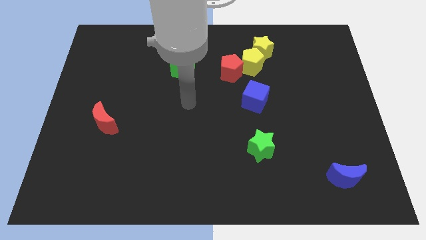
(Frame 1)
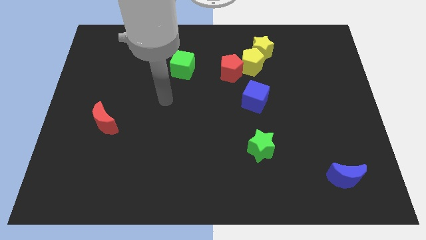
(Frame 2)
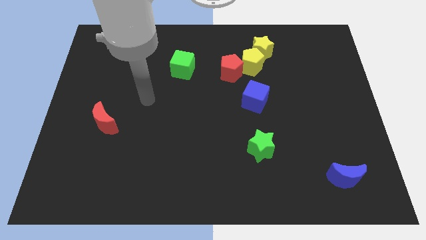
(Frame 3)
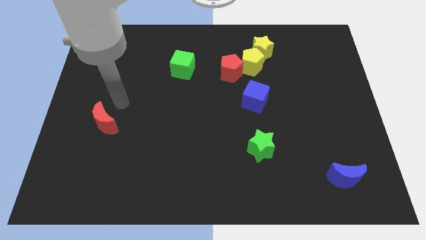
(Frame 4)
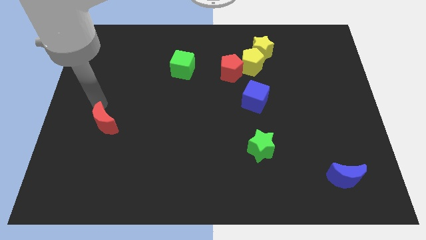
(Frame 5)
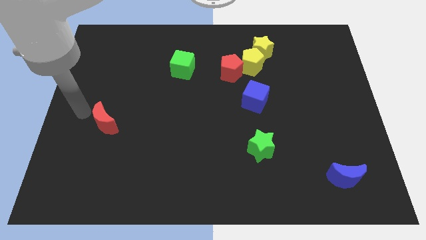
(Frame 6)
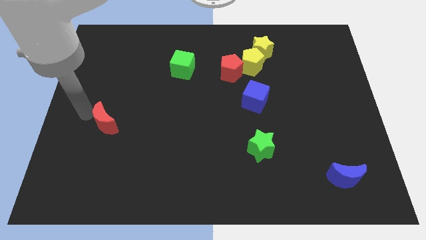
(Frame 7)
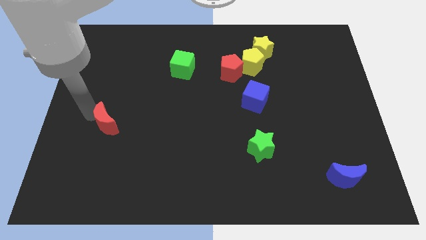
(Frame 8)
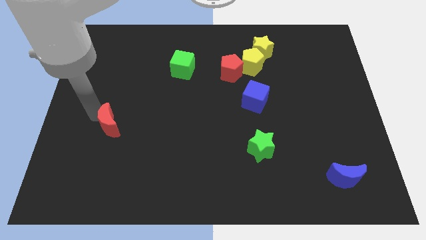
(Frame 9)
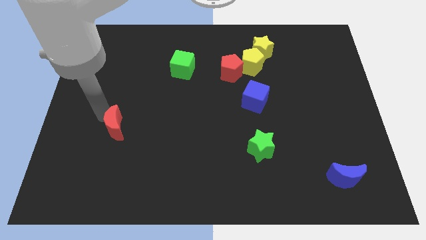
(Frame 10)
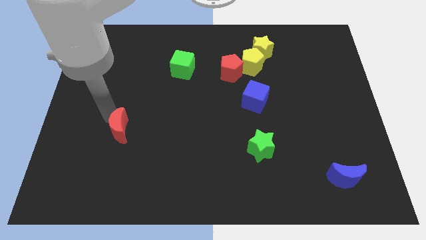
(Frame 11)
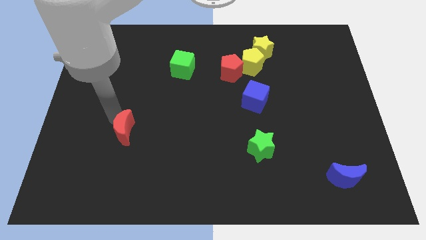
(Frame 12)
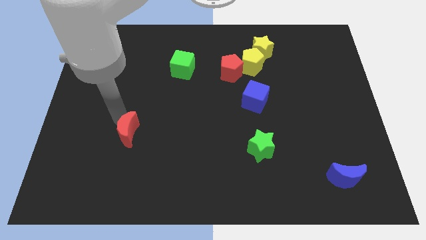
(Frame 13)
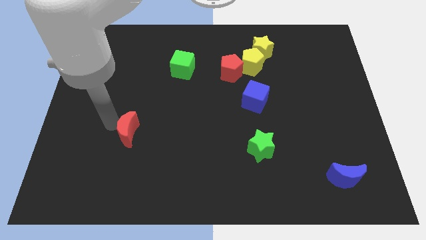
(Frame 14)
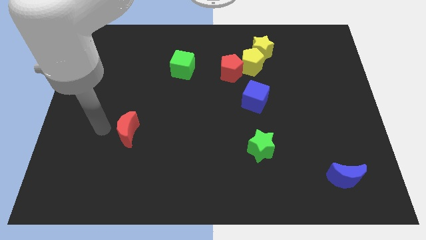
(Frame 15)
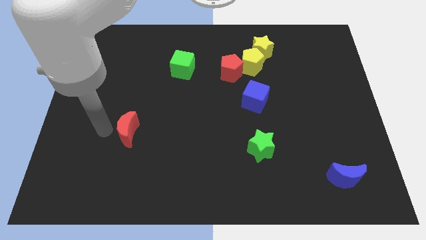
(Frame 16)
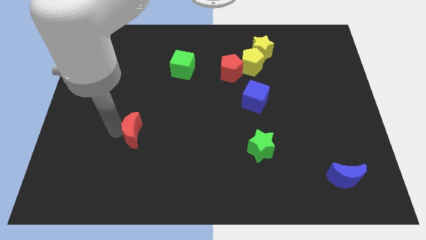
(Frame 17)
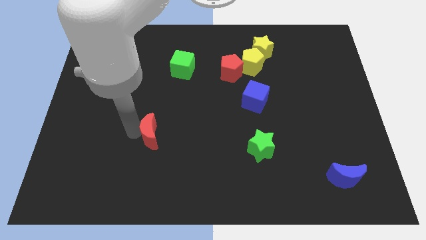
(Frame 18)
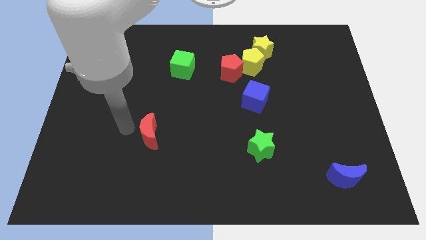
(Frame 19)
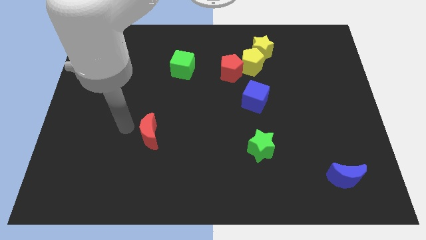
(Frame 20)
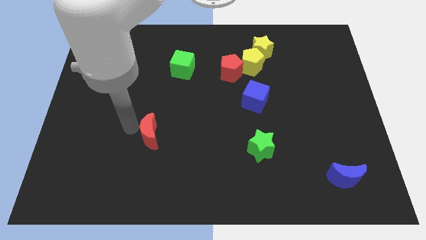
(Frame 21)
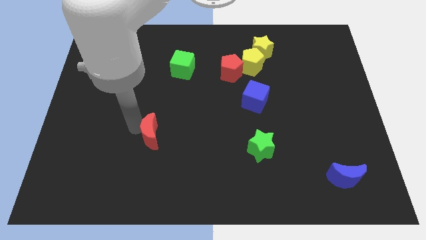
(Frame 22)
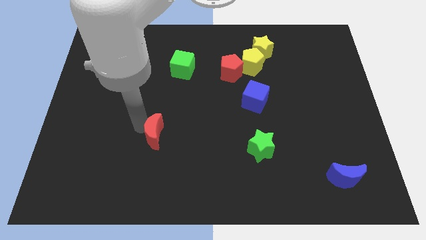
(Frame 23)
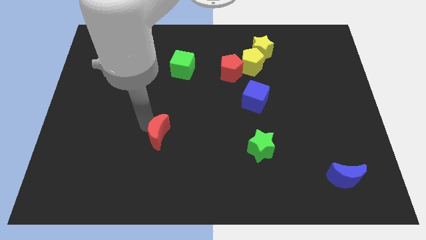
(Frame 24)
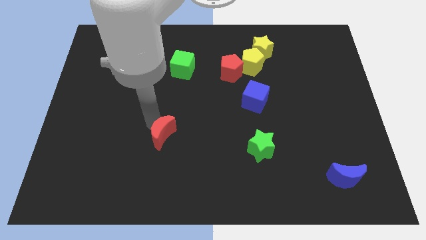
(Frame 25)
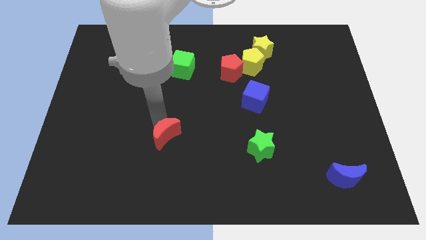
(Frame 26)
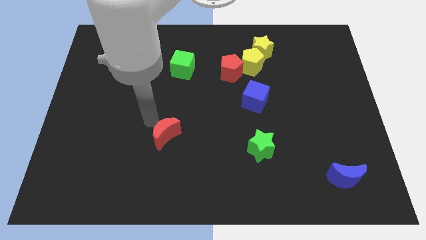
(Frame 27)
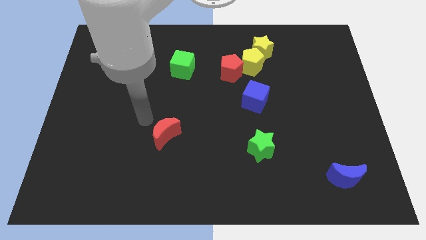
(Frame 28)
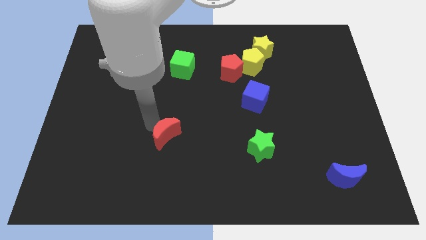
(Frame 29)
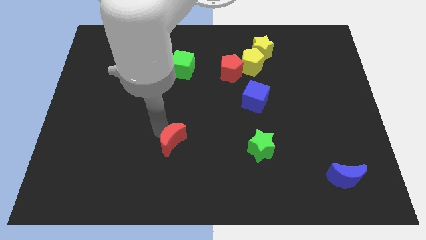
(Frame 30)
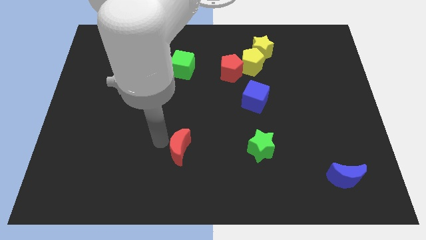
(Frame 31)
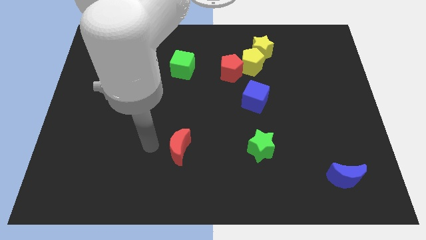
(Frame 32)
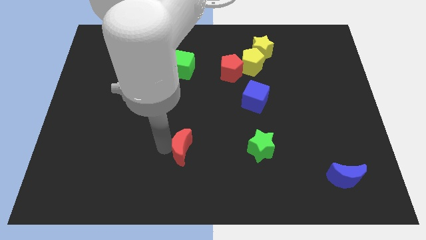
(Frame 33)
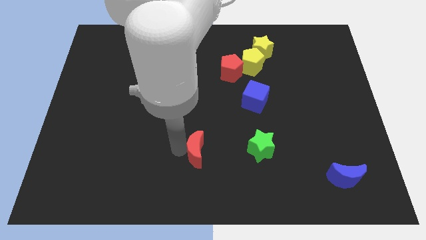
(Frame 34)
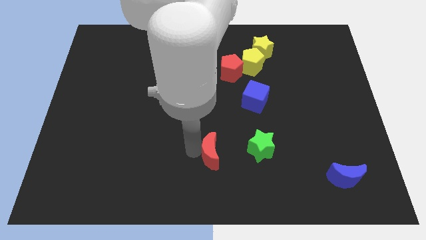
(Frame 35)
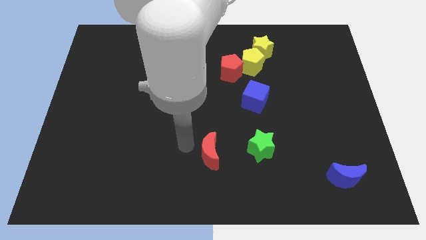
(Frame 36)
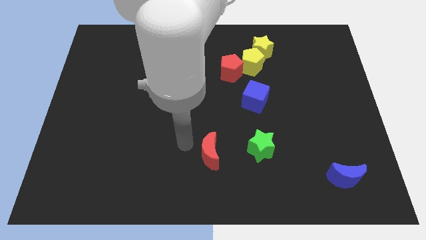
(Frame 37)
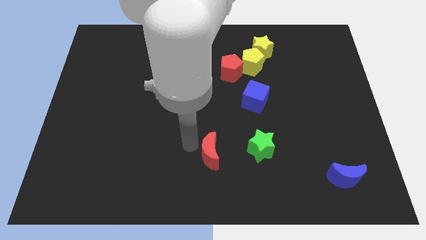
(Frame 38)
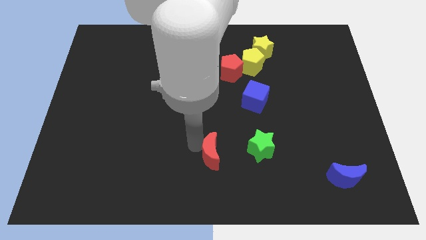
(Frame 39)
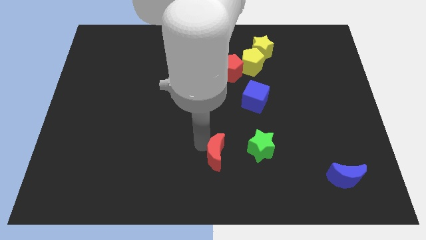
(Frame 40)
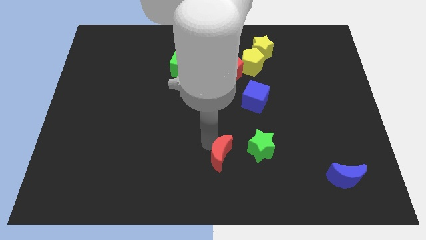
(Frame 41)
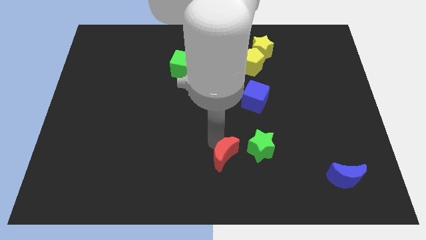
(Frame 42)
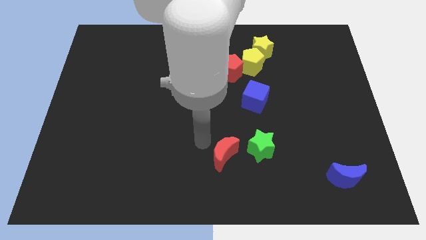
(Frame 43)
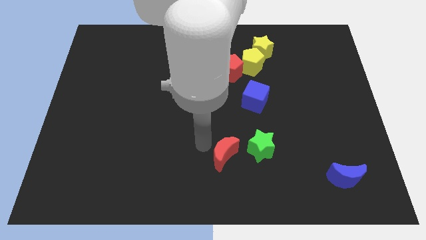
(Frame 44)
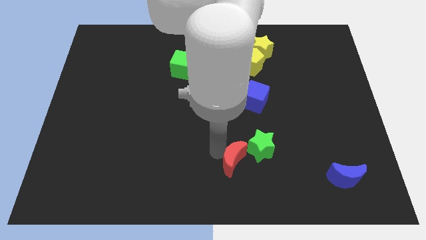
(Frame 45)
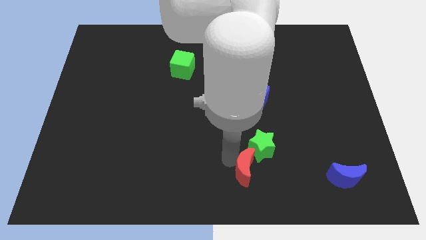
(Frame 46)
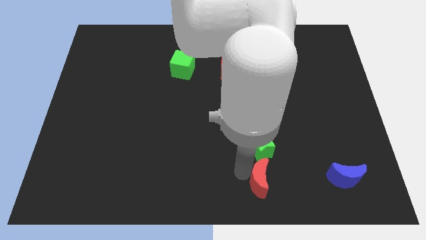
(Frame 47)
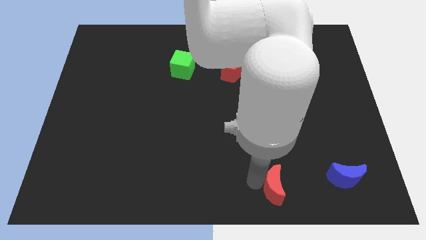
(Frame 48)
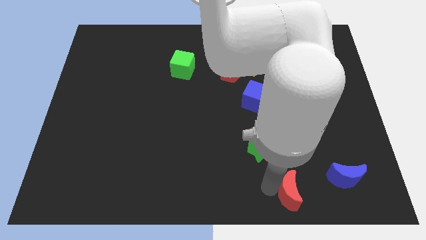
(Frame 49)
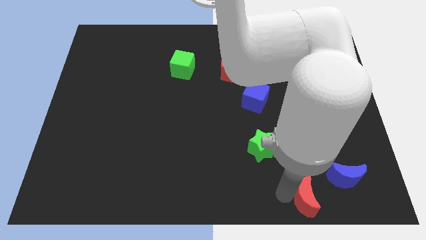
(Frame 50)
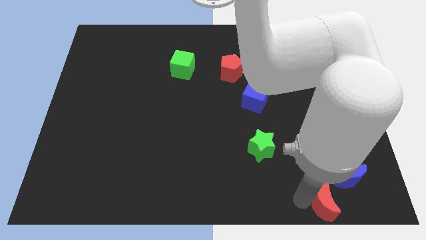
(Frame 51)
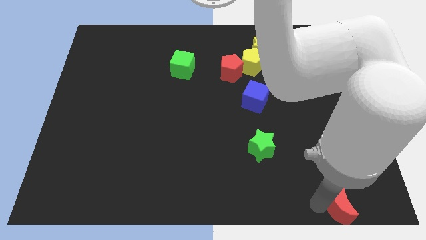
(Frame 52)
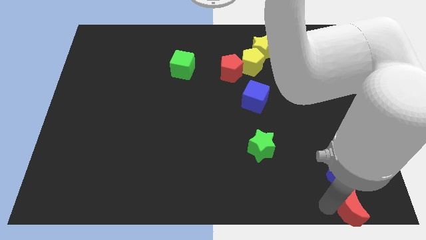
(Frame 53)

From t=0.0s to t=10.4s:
put the red moon to the bottom right

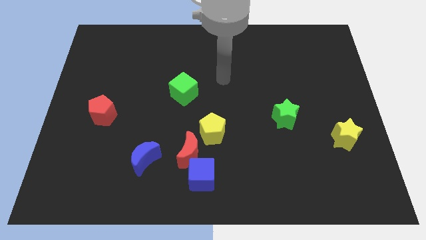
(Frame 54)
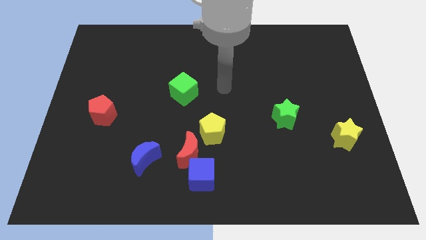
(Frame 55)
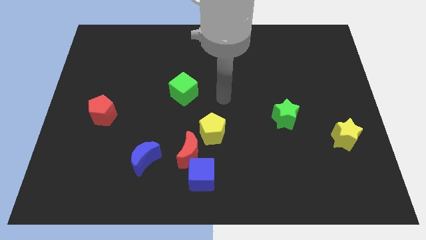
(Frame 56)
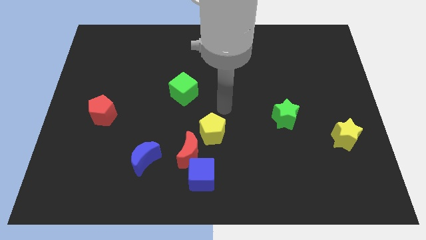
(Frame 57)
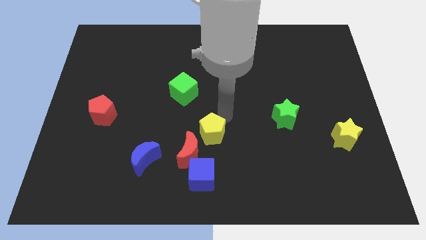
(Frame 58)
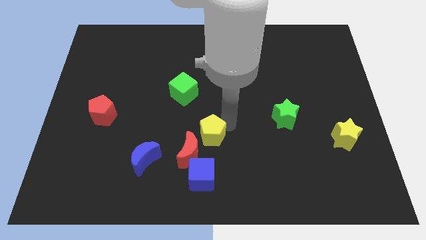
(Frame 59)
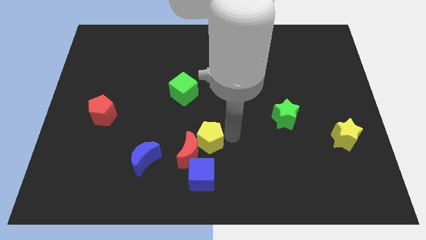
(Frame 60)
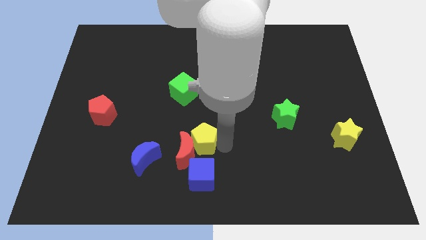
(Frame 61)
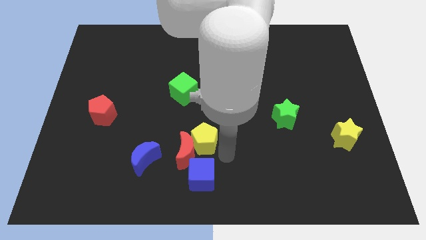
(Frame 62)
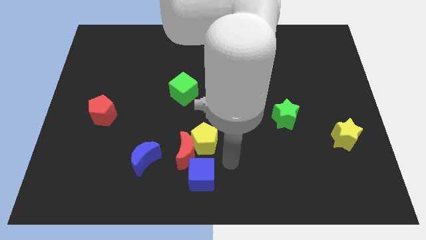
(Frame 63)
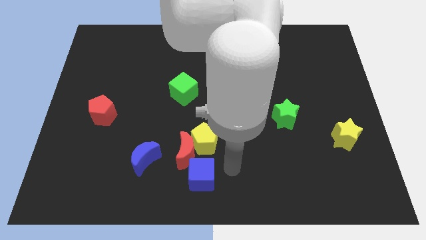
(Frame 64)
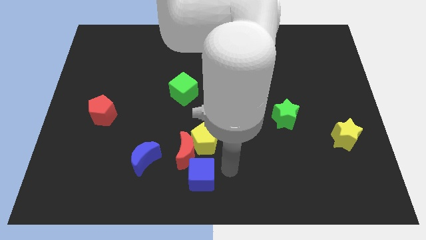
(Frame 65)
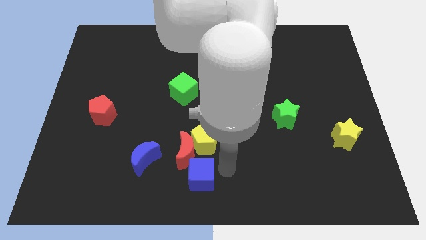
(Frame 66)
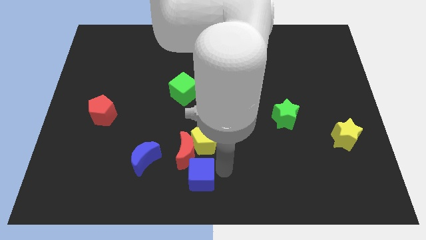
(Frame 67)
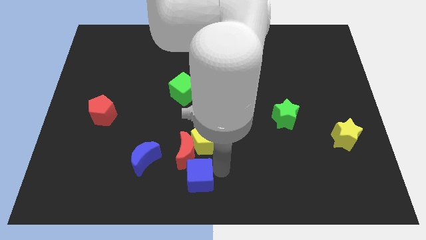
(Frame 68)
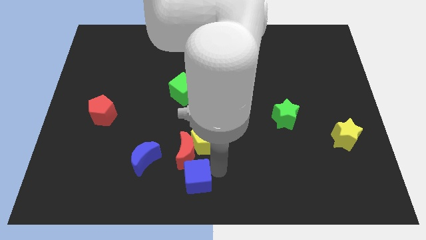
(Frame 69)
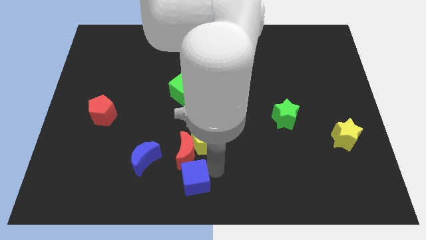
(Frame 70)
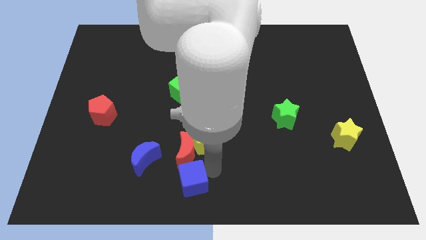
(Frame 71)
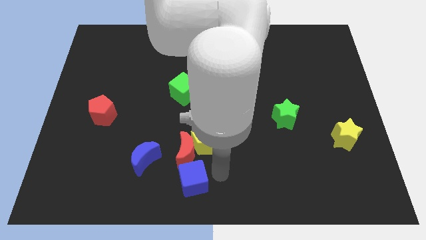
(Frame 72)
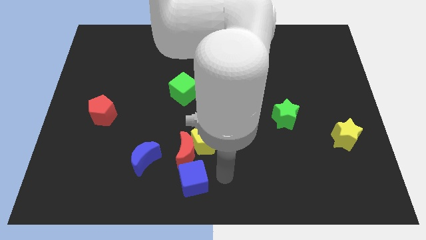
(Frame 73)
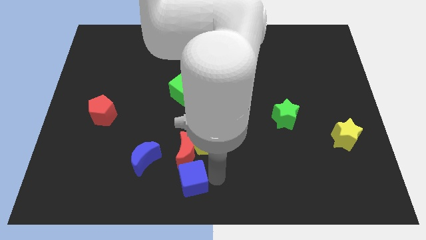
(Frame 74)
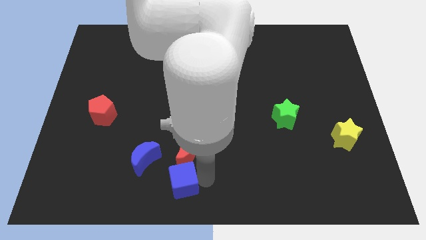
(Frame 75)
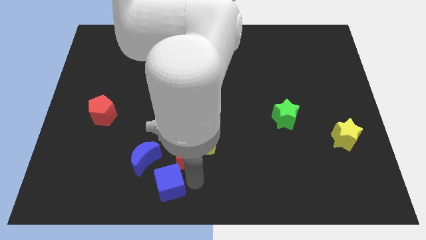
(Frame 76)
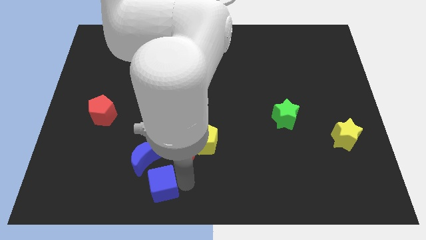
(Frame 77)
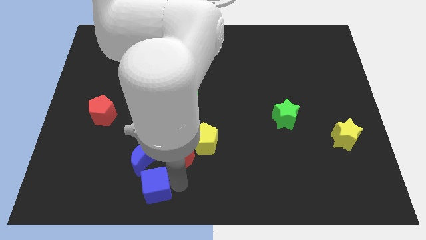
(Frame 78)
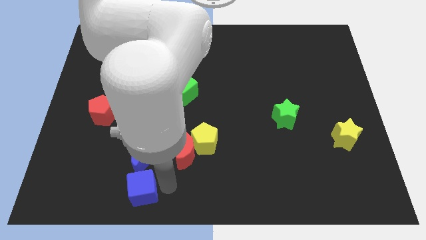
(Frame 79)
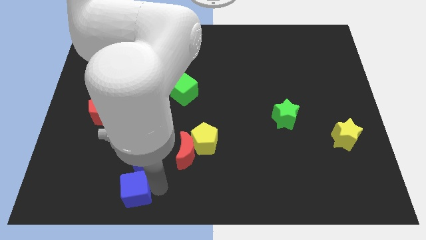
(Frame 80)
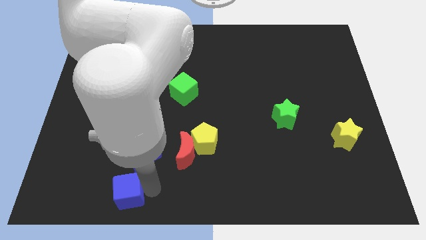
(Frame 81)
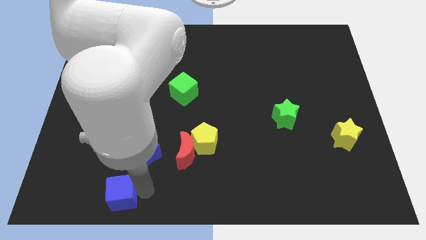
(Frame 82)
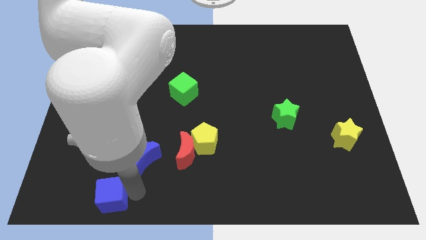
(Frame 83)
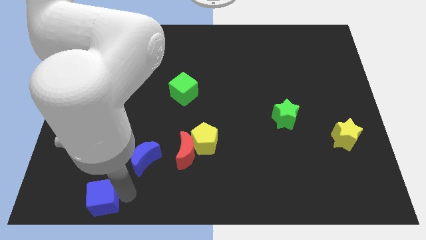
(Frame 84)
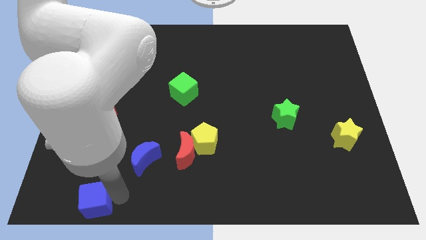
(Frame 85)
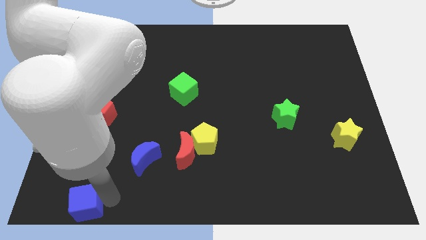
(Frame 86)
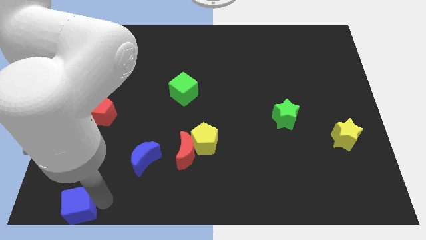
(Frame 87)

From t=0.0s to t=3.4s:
move the blue cube to the bottom left
